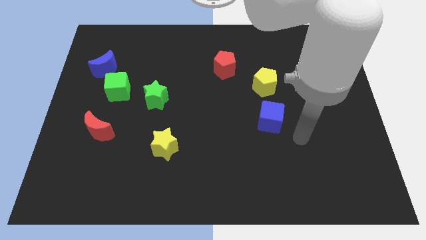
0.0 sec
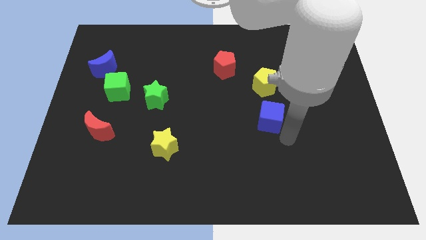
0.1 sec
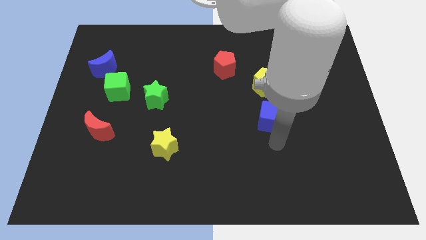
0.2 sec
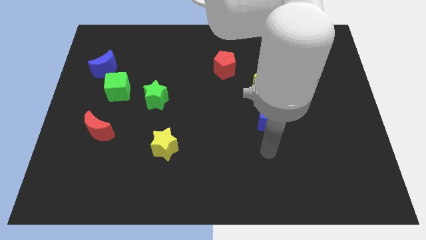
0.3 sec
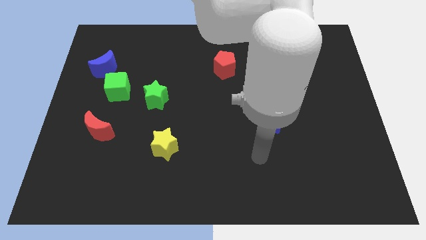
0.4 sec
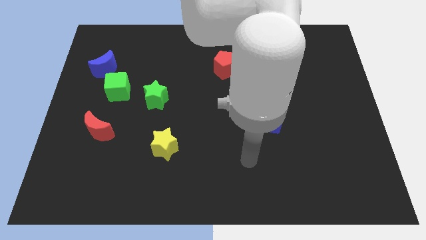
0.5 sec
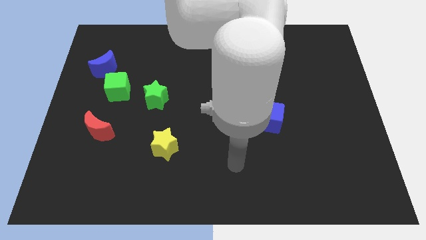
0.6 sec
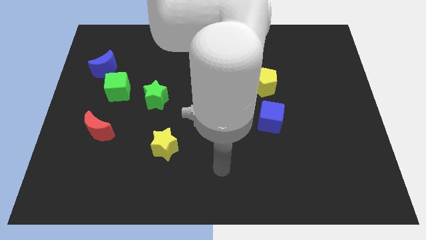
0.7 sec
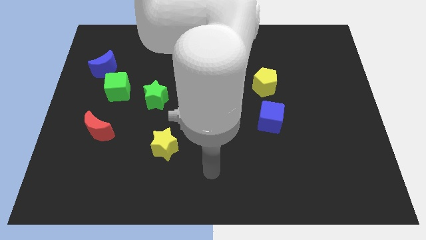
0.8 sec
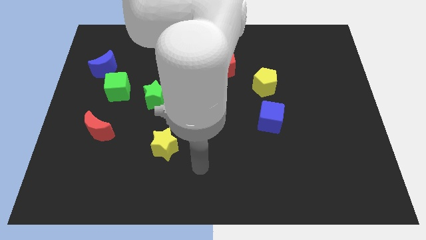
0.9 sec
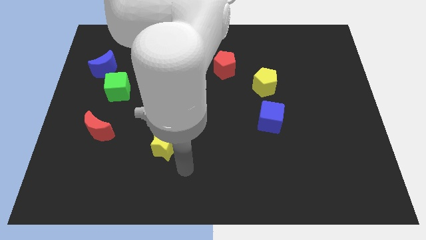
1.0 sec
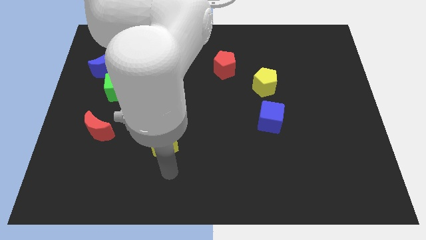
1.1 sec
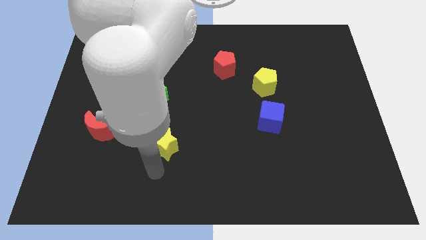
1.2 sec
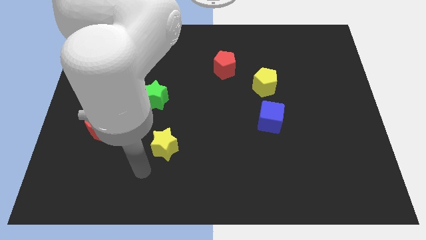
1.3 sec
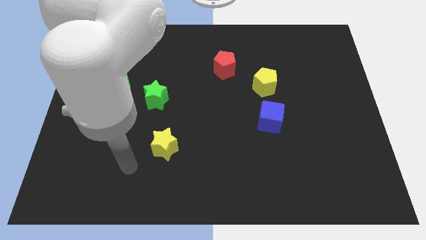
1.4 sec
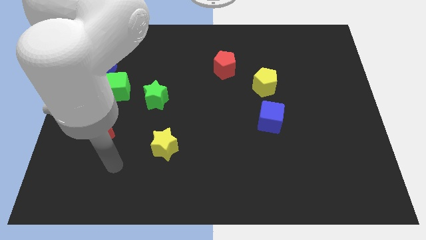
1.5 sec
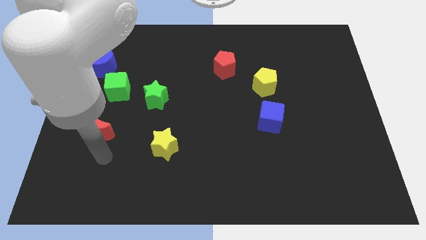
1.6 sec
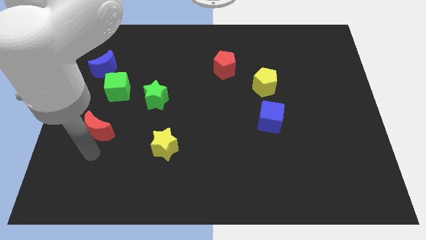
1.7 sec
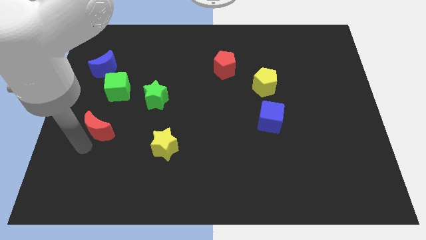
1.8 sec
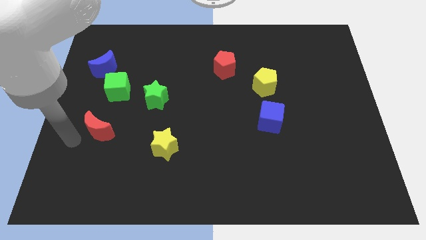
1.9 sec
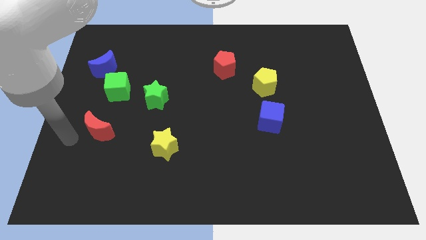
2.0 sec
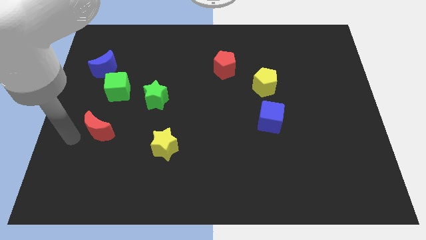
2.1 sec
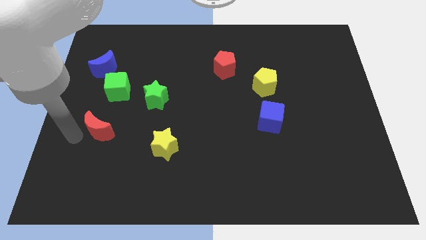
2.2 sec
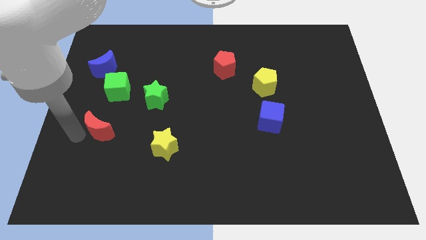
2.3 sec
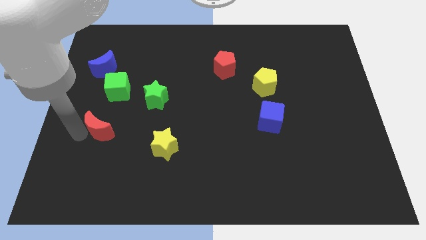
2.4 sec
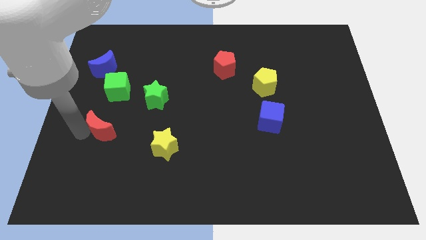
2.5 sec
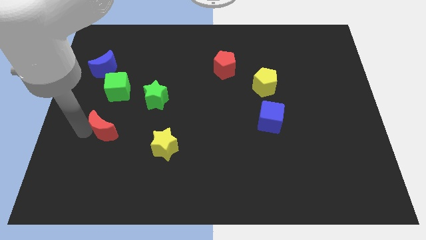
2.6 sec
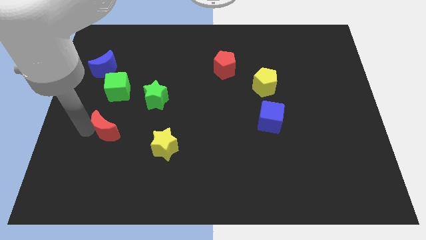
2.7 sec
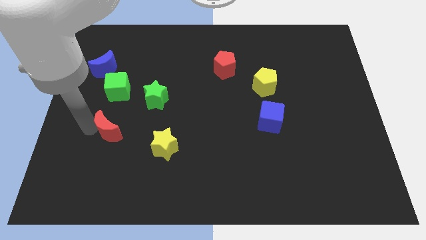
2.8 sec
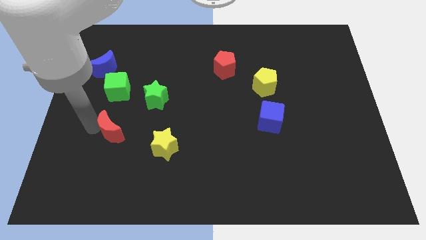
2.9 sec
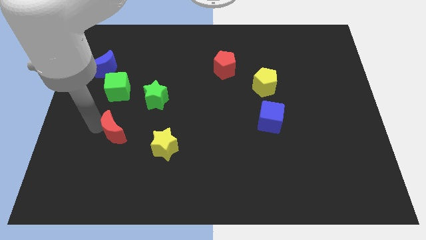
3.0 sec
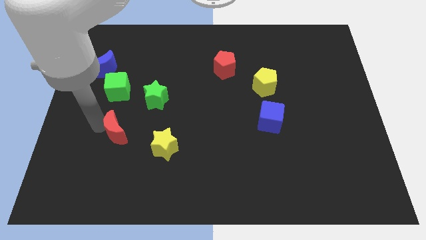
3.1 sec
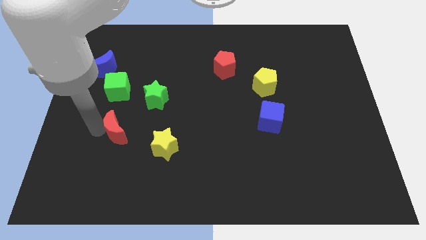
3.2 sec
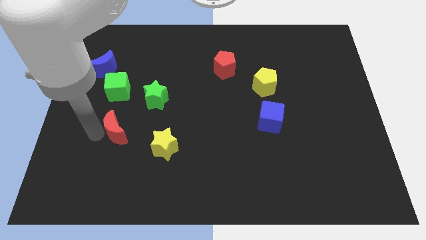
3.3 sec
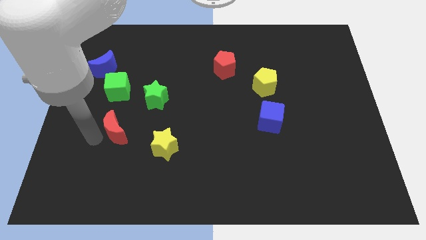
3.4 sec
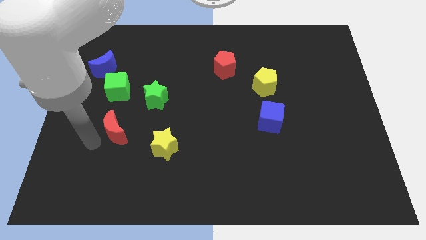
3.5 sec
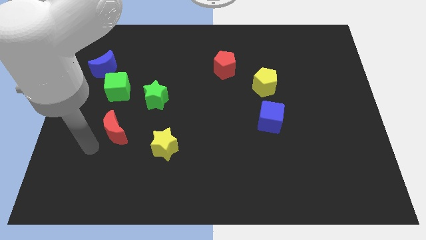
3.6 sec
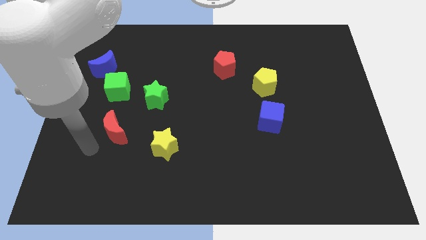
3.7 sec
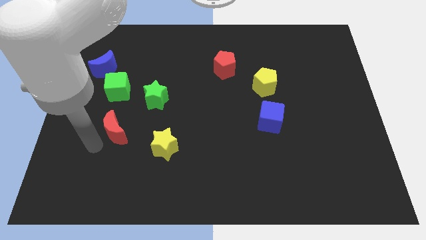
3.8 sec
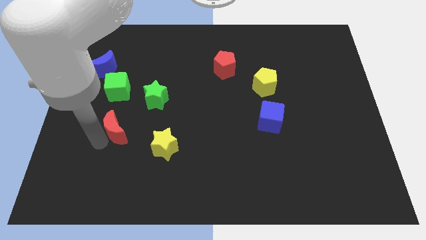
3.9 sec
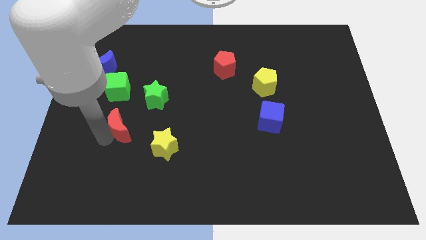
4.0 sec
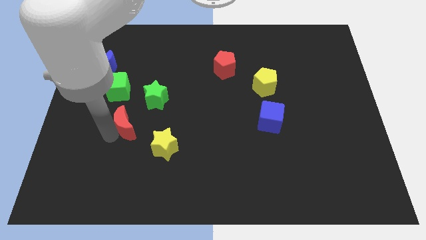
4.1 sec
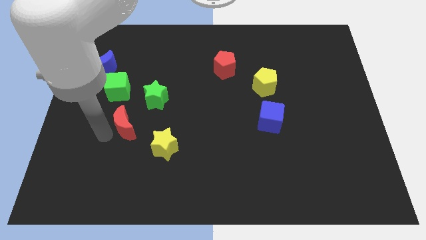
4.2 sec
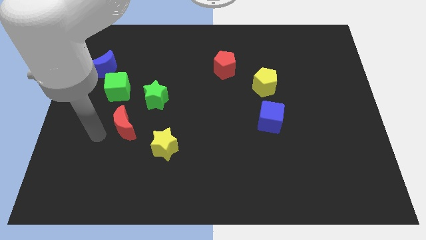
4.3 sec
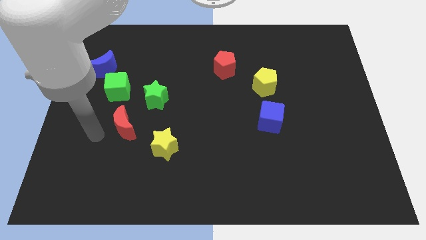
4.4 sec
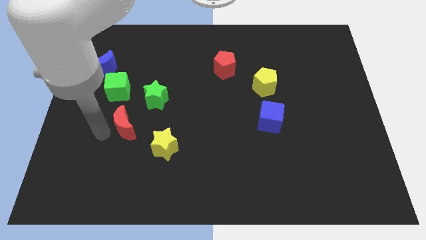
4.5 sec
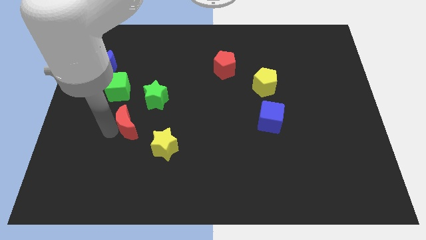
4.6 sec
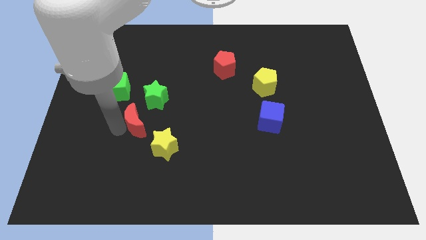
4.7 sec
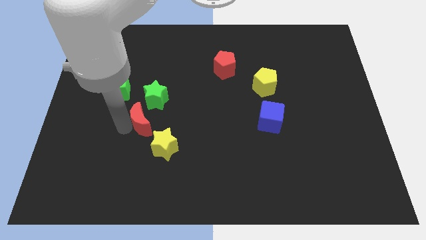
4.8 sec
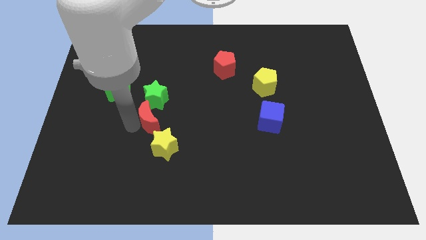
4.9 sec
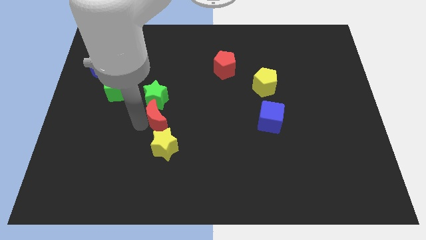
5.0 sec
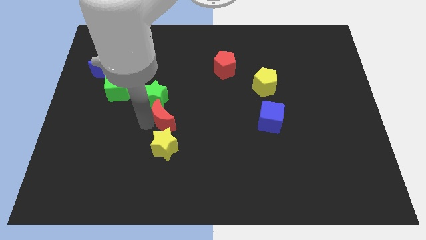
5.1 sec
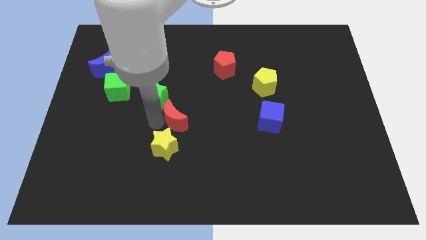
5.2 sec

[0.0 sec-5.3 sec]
slide the red moon to the middle
